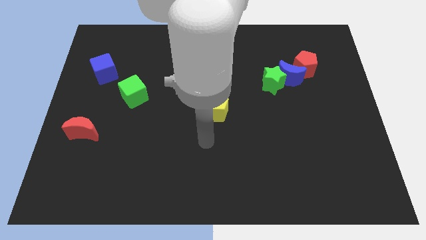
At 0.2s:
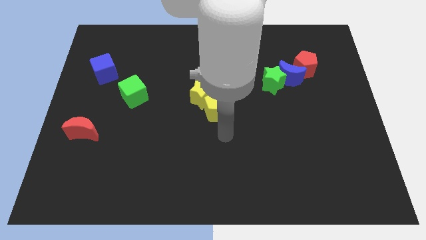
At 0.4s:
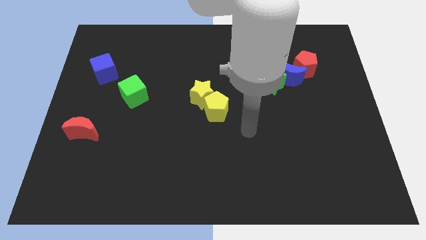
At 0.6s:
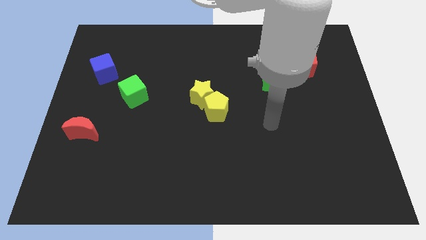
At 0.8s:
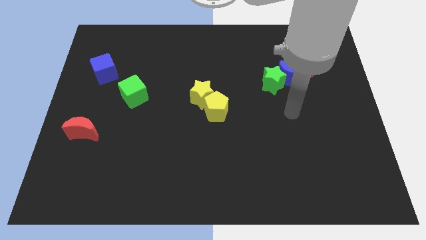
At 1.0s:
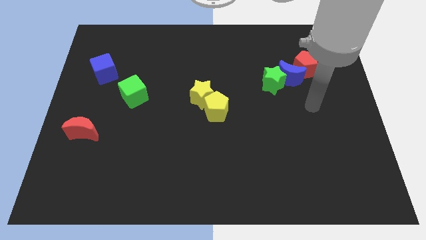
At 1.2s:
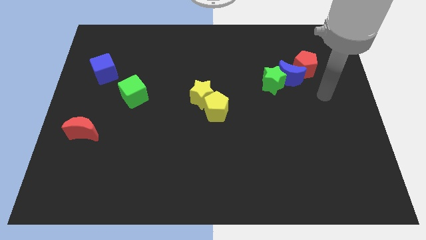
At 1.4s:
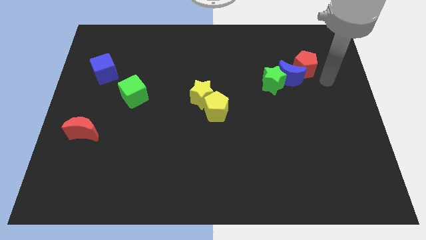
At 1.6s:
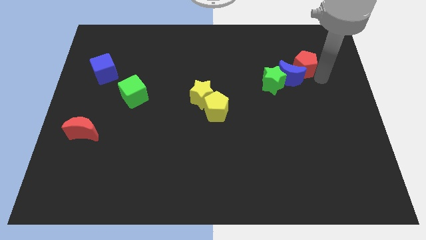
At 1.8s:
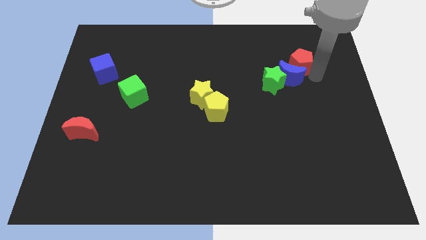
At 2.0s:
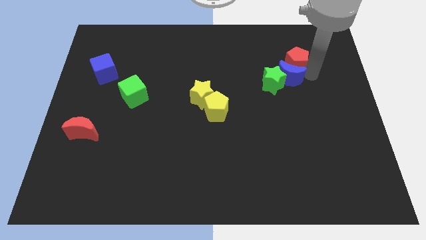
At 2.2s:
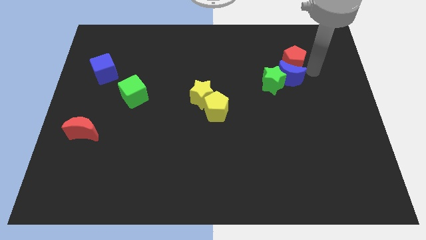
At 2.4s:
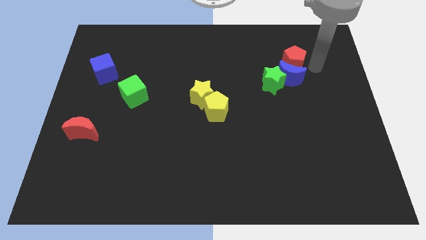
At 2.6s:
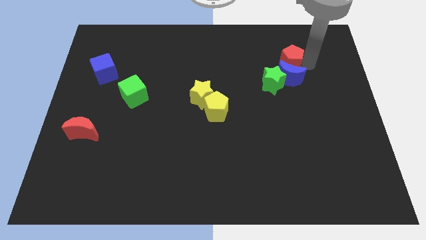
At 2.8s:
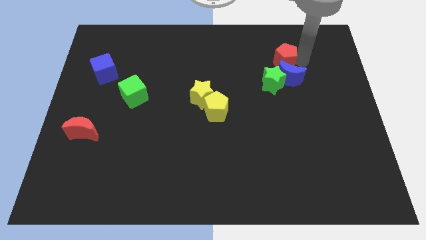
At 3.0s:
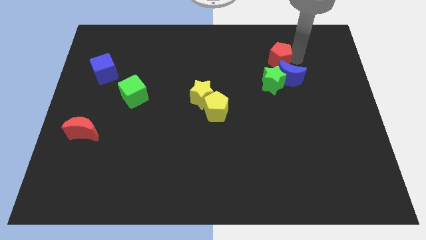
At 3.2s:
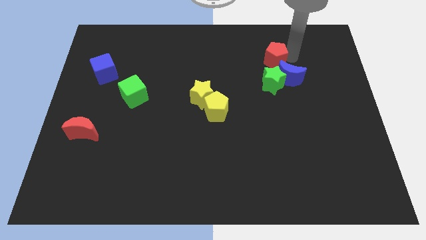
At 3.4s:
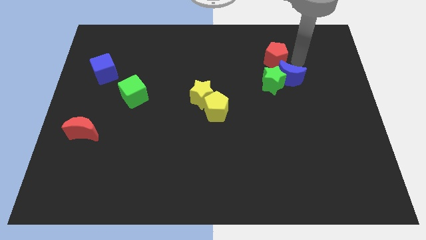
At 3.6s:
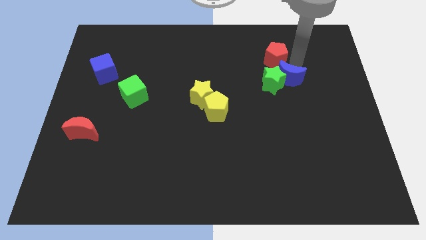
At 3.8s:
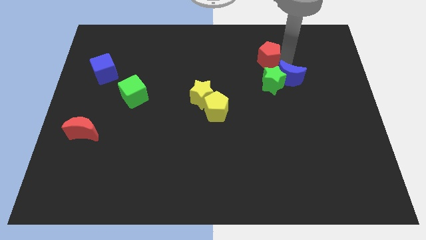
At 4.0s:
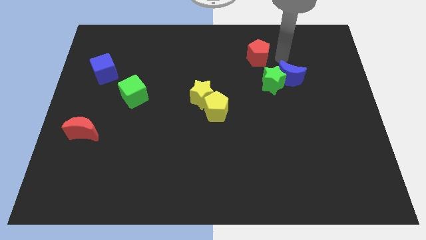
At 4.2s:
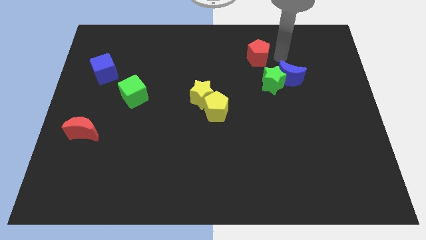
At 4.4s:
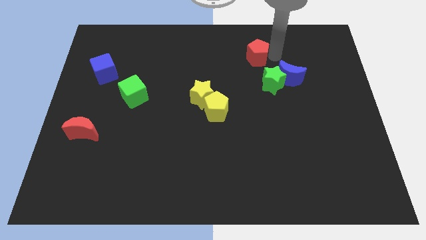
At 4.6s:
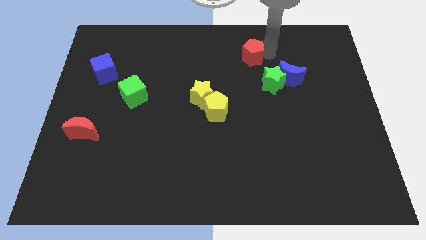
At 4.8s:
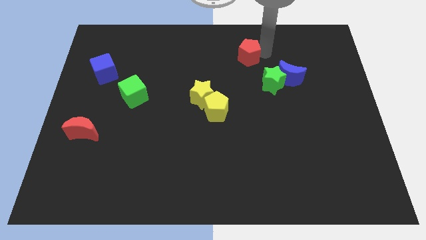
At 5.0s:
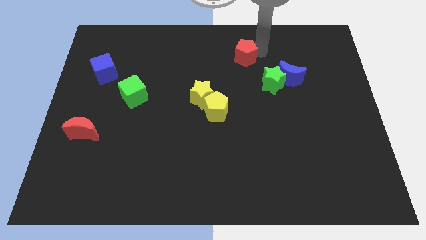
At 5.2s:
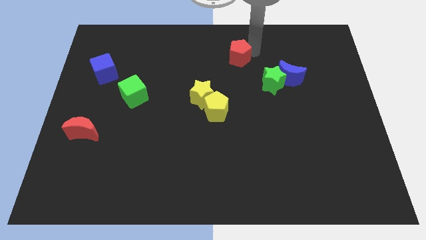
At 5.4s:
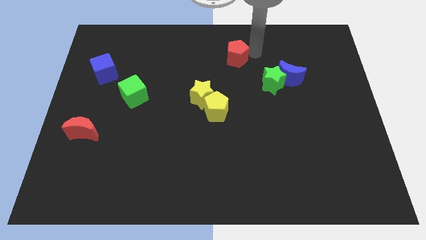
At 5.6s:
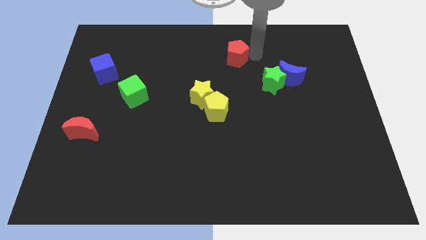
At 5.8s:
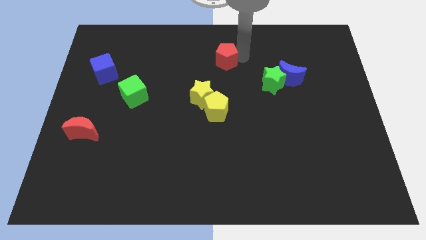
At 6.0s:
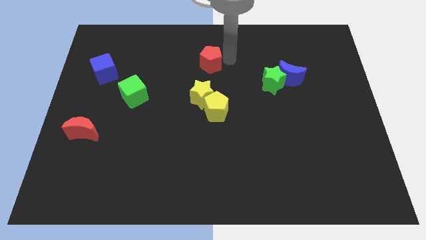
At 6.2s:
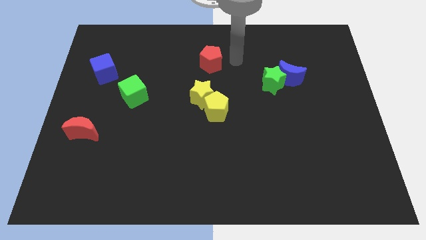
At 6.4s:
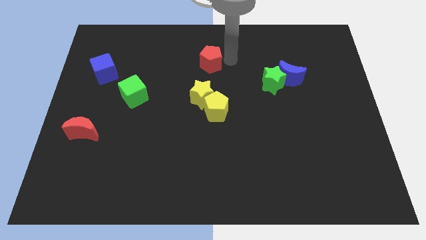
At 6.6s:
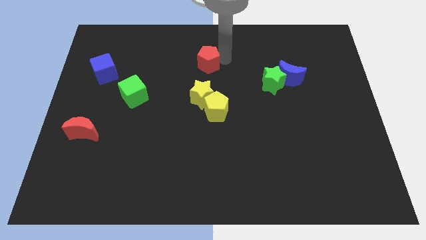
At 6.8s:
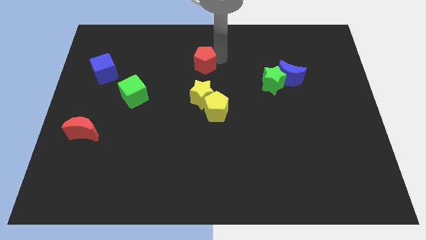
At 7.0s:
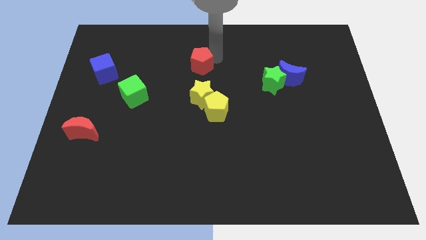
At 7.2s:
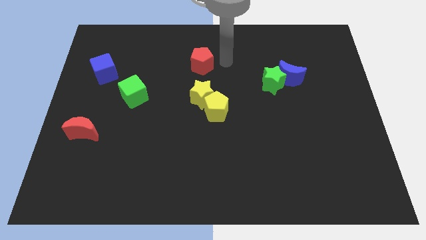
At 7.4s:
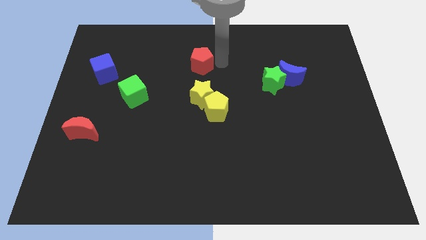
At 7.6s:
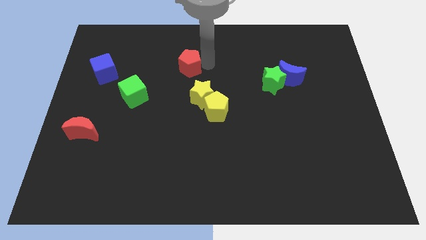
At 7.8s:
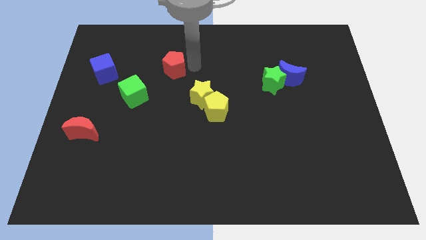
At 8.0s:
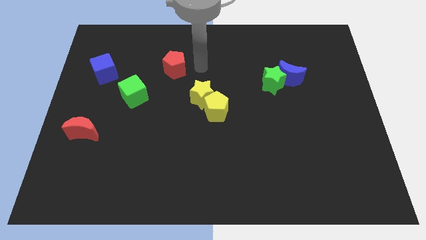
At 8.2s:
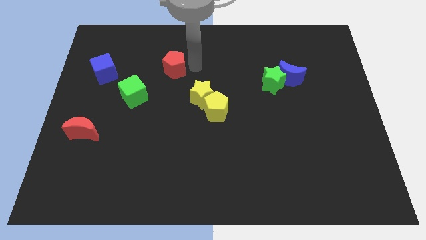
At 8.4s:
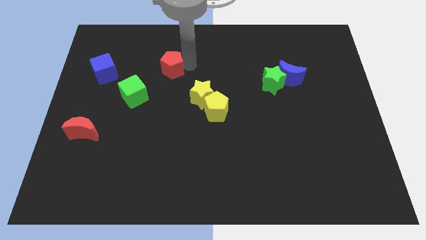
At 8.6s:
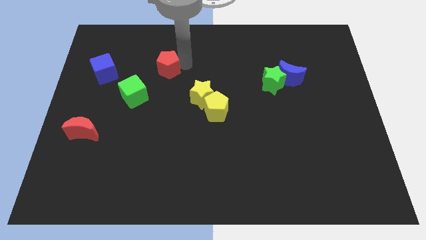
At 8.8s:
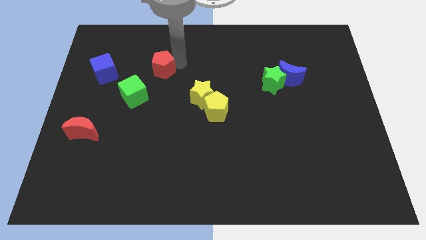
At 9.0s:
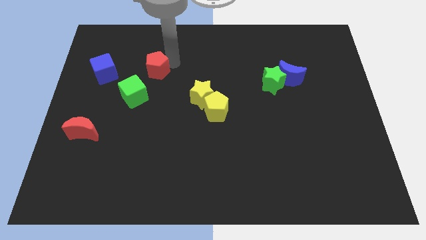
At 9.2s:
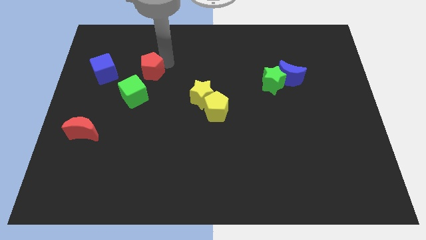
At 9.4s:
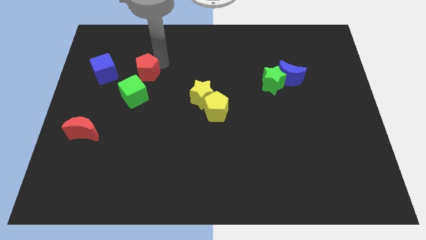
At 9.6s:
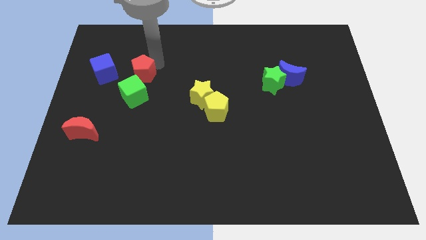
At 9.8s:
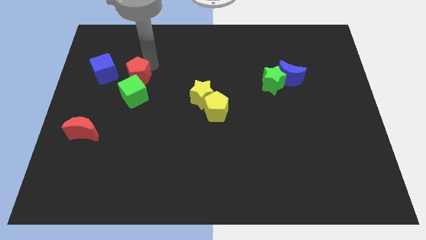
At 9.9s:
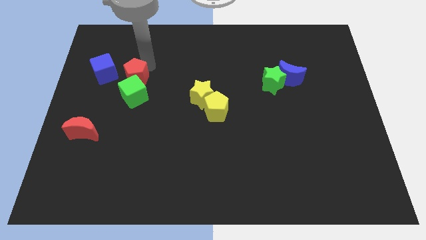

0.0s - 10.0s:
push the red pentagon diagonally down and to the right of the blue cube

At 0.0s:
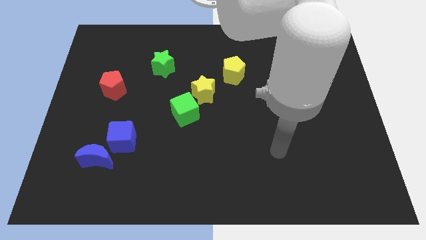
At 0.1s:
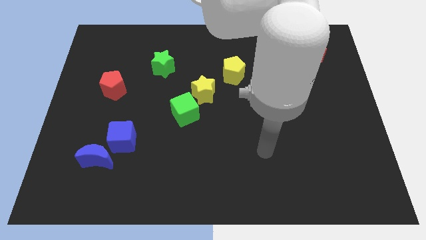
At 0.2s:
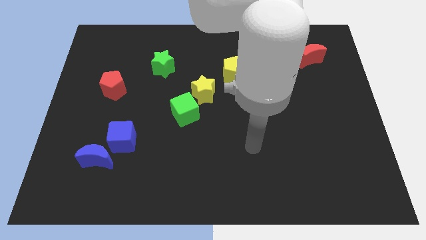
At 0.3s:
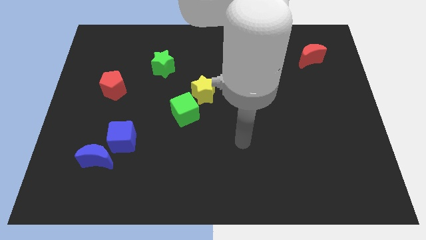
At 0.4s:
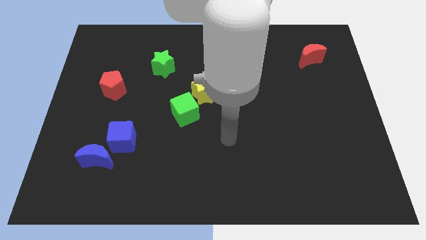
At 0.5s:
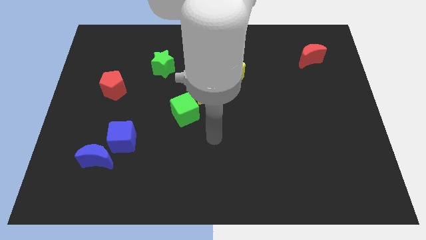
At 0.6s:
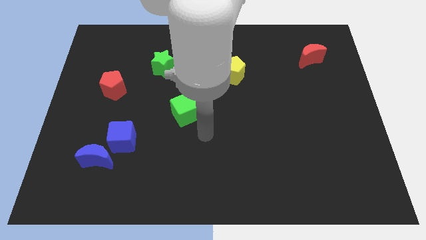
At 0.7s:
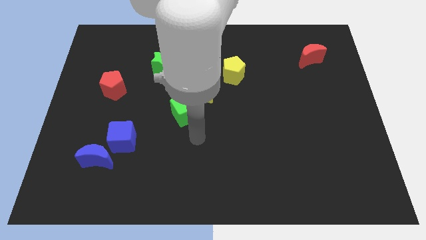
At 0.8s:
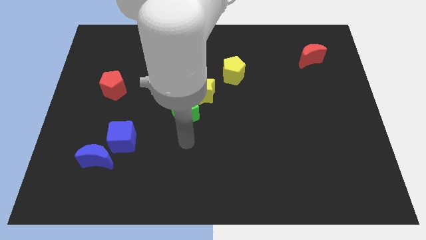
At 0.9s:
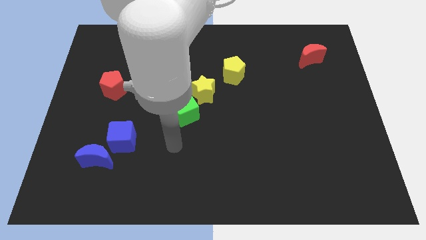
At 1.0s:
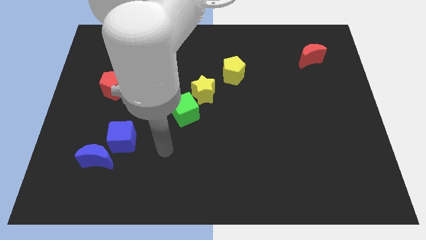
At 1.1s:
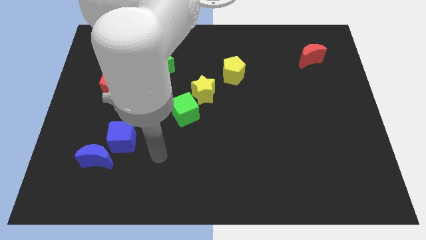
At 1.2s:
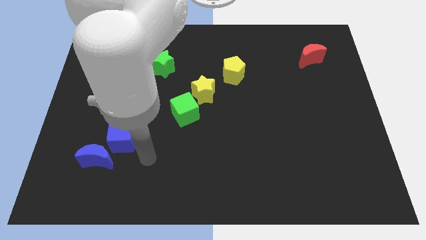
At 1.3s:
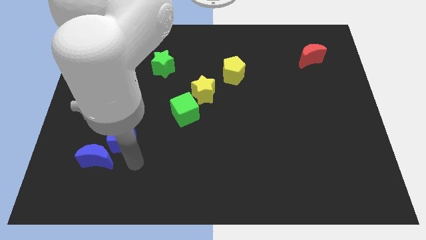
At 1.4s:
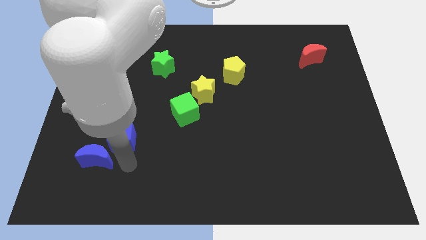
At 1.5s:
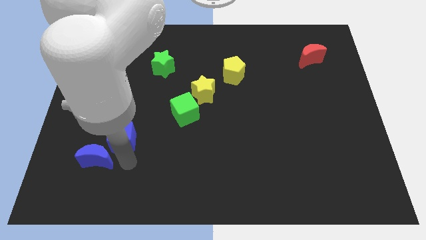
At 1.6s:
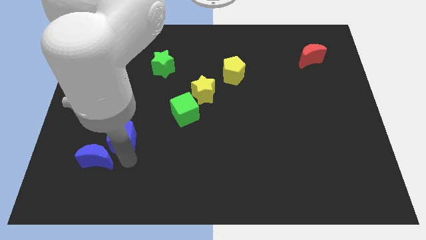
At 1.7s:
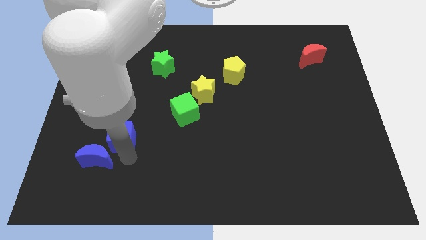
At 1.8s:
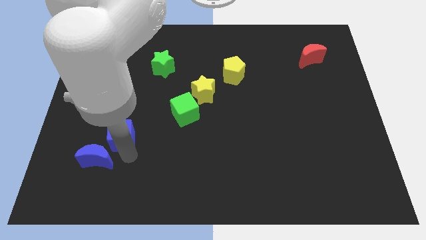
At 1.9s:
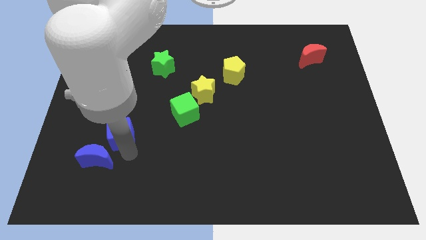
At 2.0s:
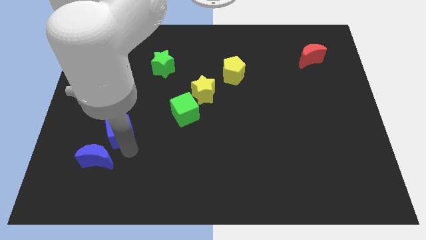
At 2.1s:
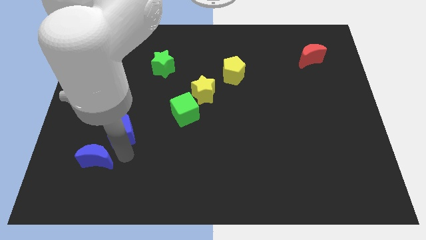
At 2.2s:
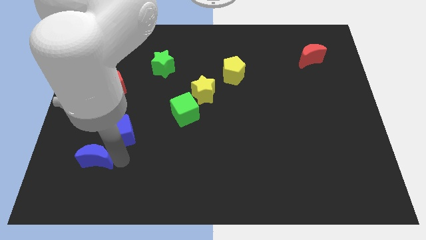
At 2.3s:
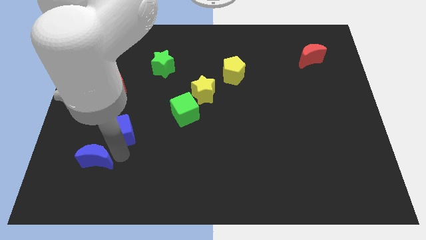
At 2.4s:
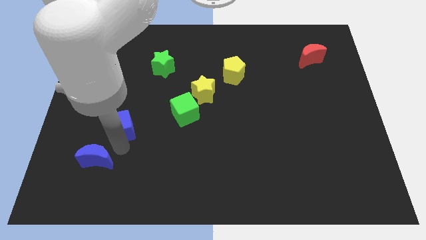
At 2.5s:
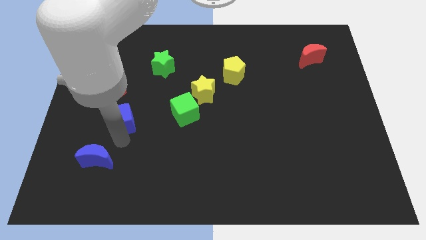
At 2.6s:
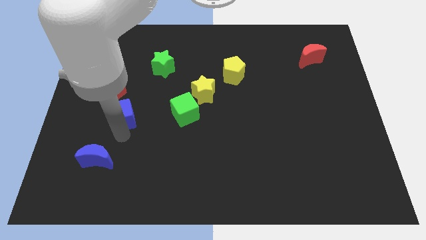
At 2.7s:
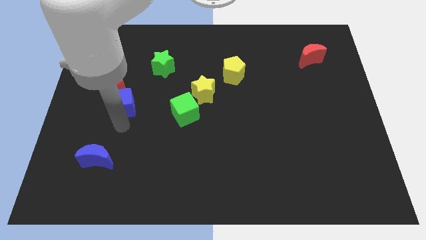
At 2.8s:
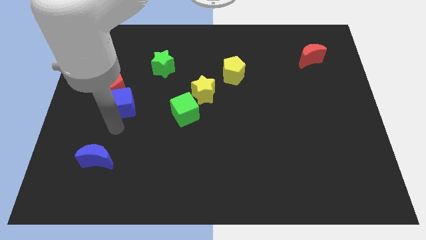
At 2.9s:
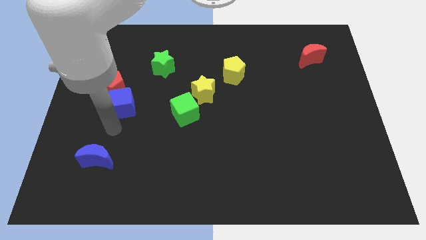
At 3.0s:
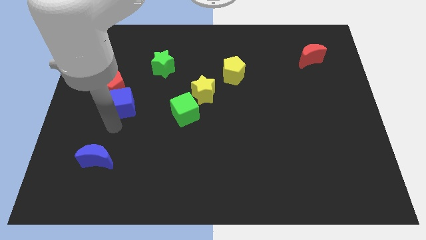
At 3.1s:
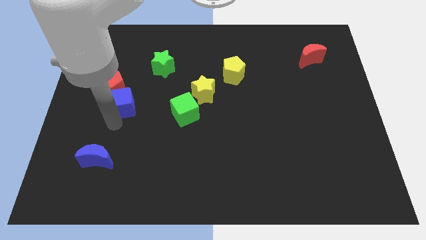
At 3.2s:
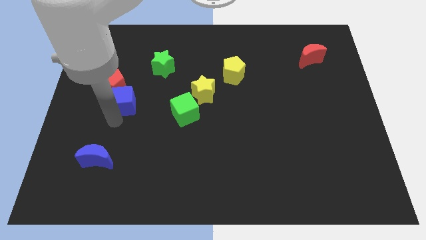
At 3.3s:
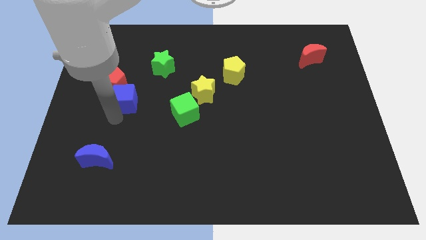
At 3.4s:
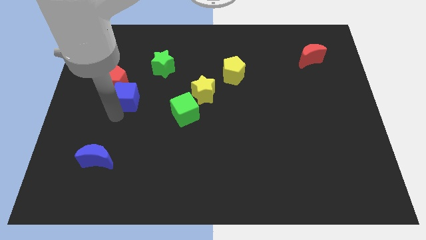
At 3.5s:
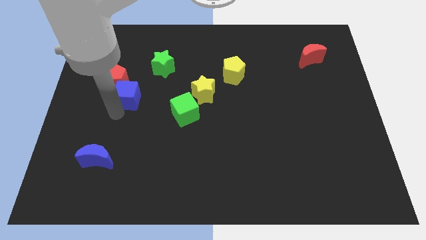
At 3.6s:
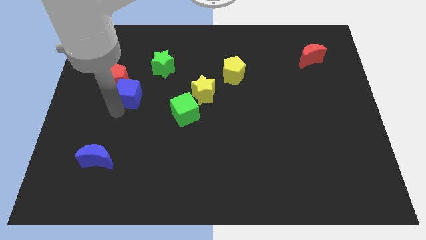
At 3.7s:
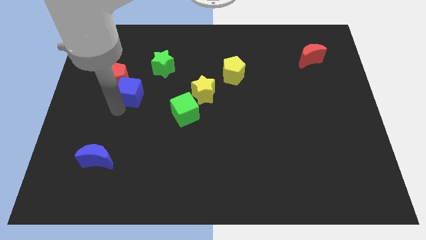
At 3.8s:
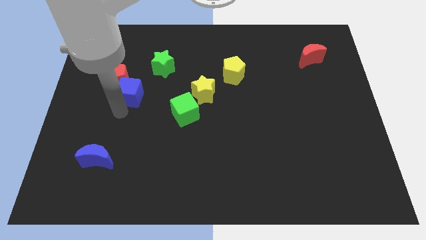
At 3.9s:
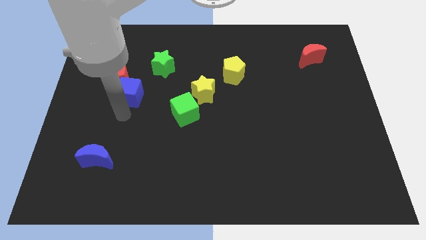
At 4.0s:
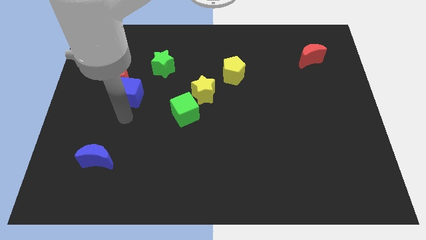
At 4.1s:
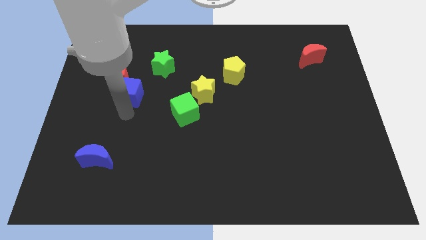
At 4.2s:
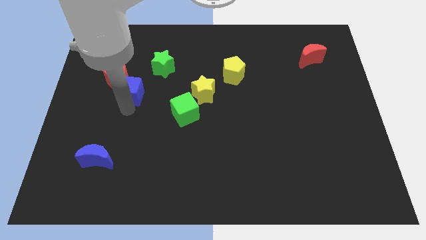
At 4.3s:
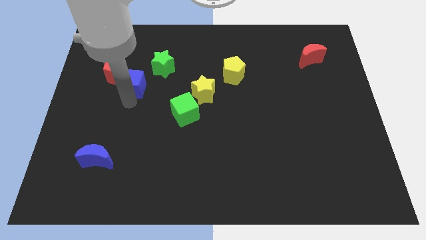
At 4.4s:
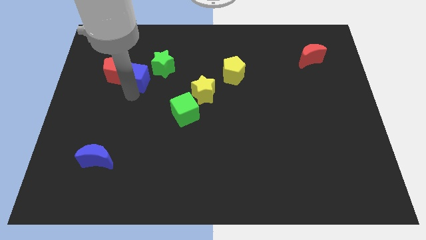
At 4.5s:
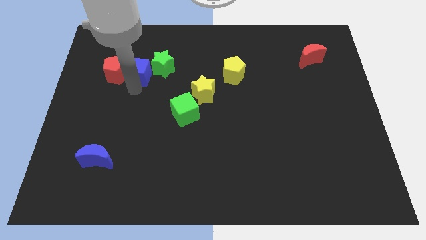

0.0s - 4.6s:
slide the blue cube to the top right of the red pentagon
